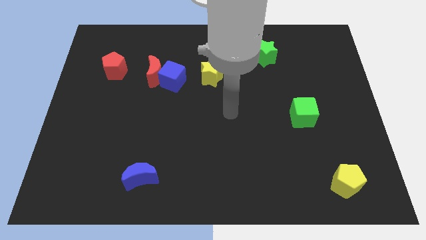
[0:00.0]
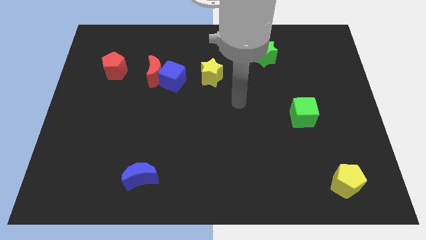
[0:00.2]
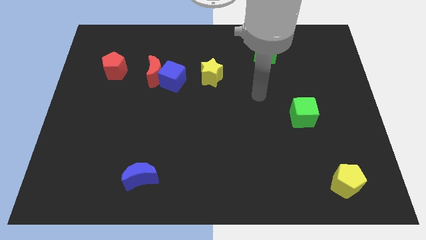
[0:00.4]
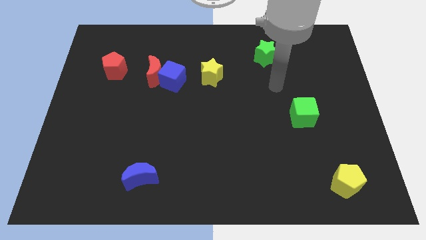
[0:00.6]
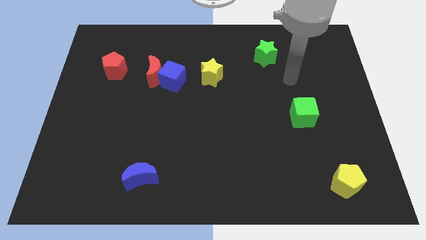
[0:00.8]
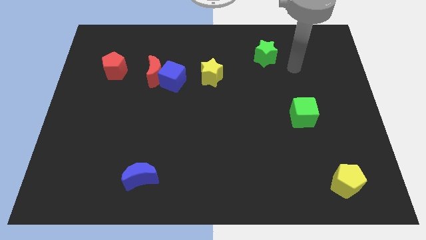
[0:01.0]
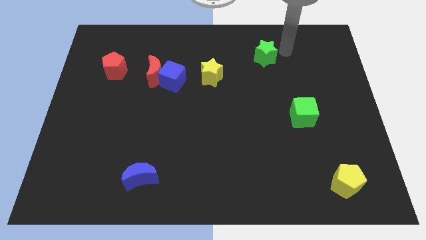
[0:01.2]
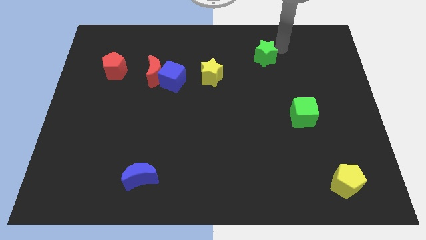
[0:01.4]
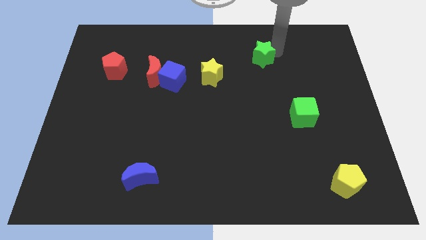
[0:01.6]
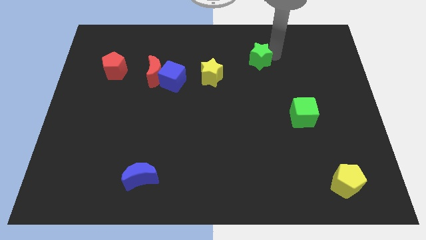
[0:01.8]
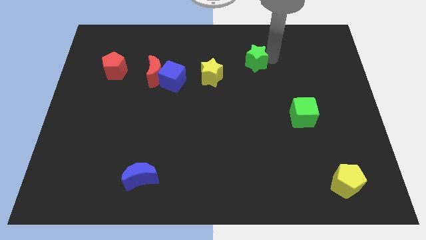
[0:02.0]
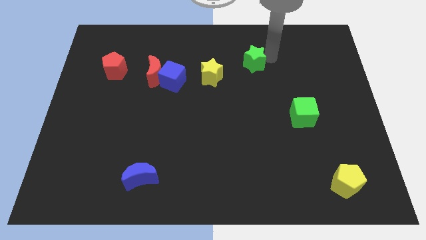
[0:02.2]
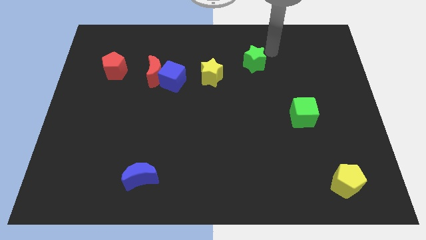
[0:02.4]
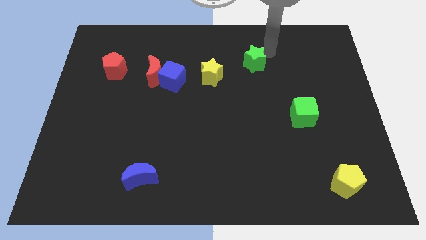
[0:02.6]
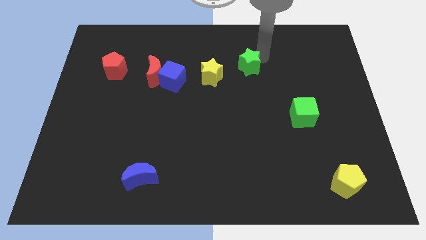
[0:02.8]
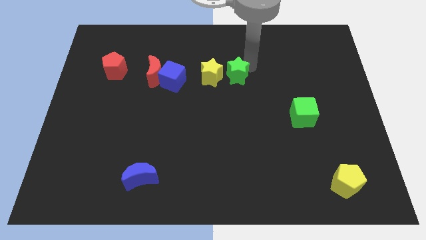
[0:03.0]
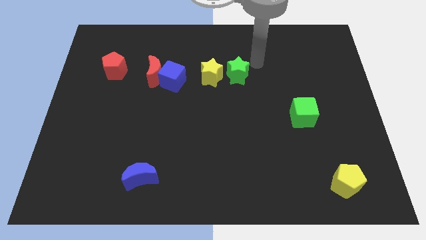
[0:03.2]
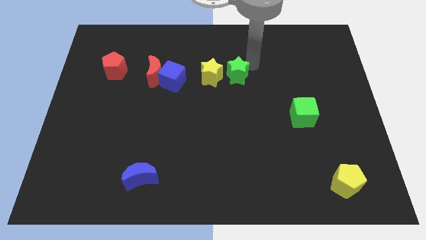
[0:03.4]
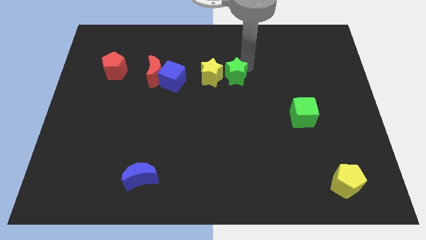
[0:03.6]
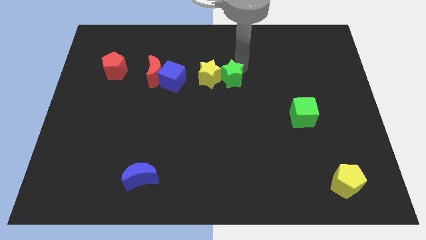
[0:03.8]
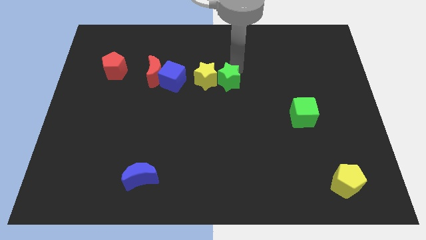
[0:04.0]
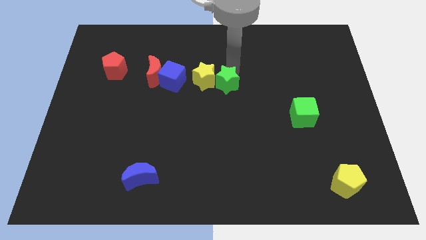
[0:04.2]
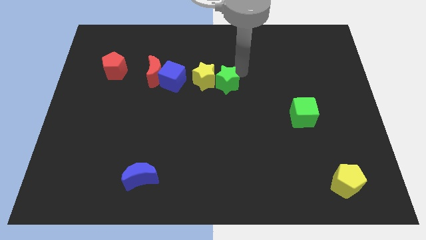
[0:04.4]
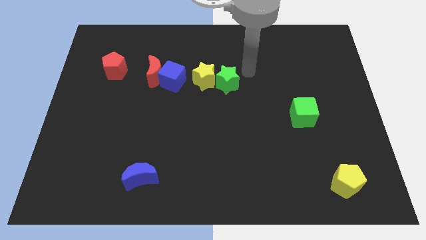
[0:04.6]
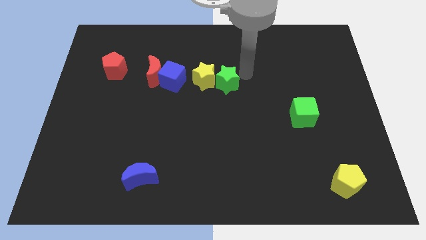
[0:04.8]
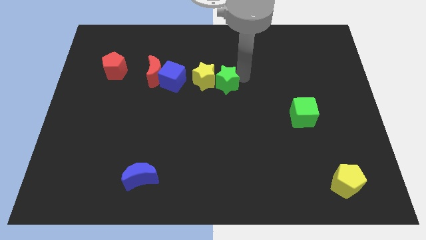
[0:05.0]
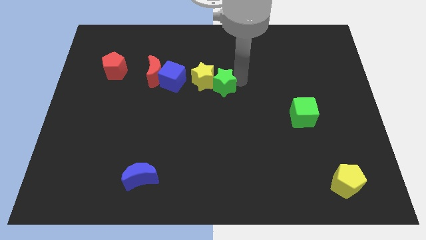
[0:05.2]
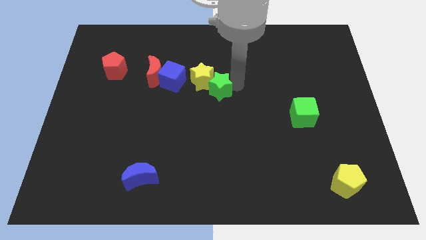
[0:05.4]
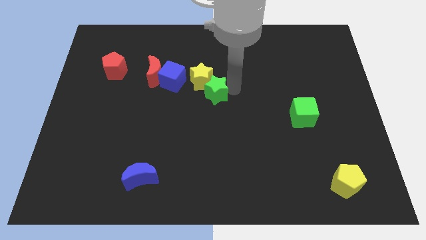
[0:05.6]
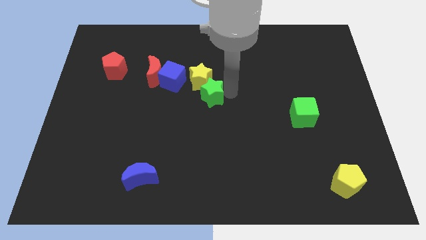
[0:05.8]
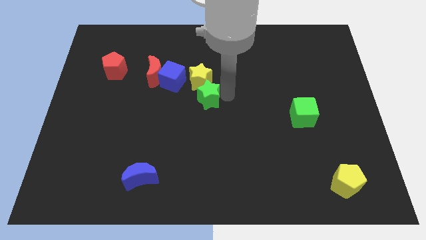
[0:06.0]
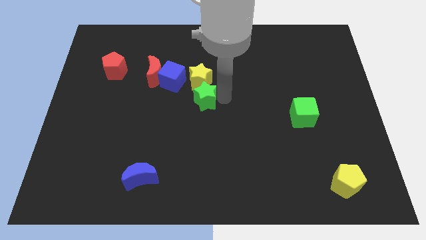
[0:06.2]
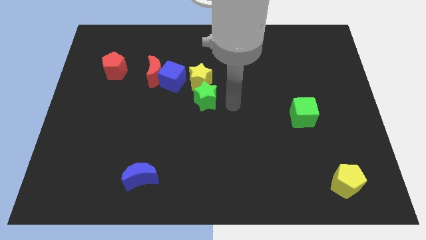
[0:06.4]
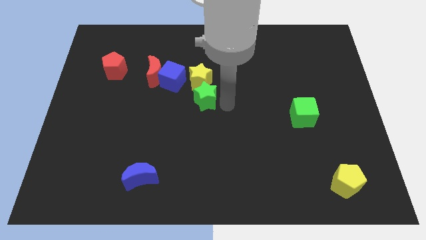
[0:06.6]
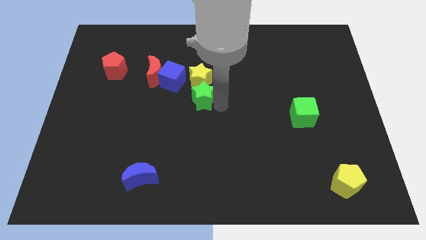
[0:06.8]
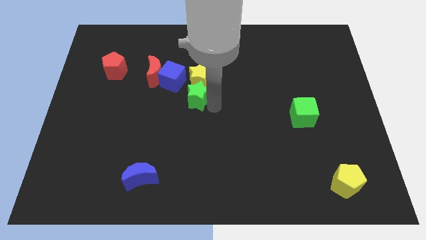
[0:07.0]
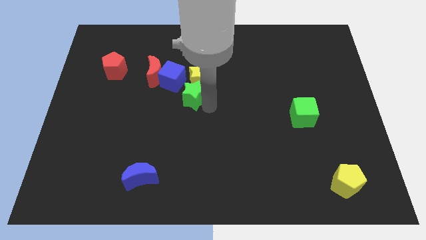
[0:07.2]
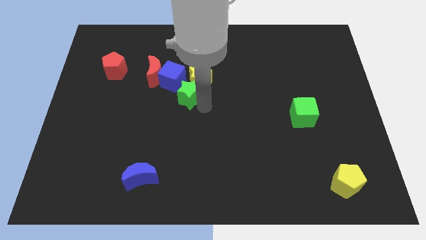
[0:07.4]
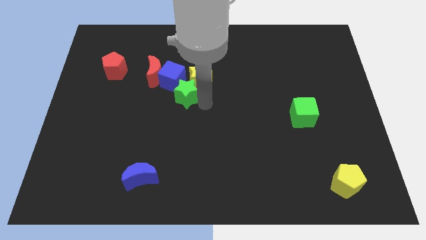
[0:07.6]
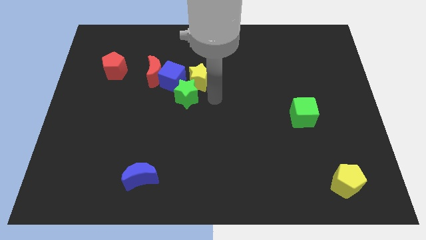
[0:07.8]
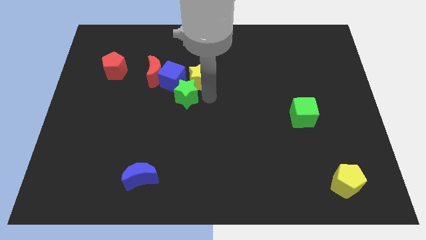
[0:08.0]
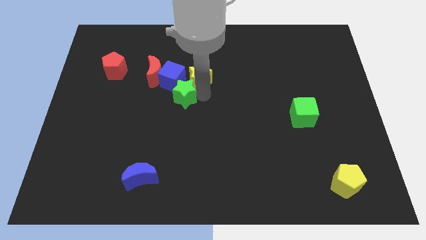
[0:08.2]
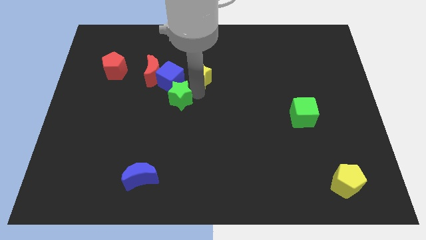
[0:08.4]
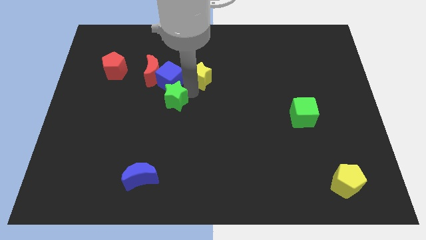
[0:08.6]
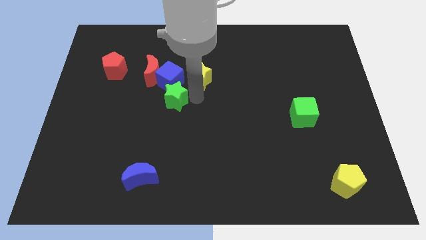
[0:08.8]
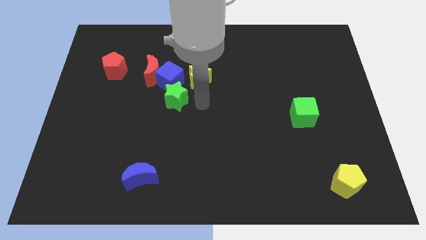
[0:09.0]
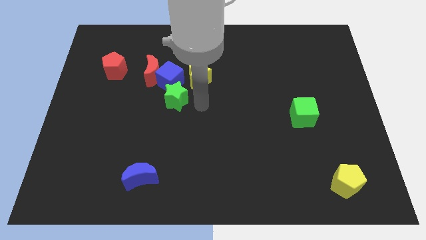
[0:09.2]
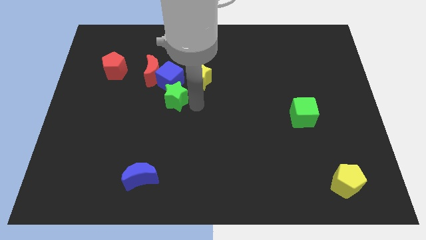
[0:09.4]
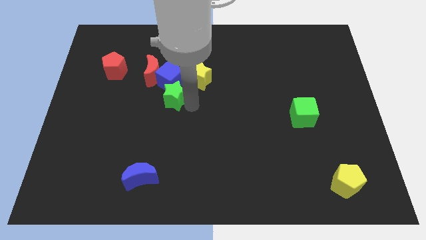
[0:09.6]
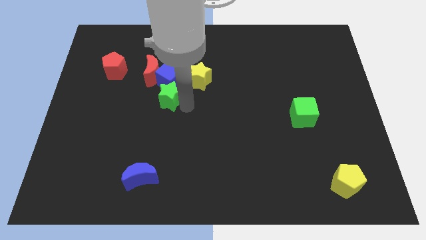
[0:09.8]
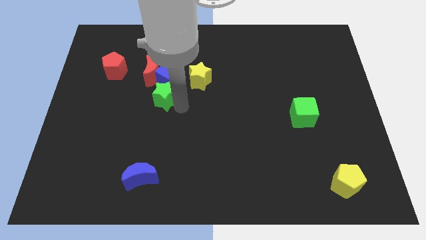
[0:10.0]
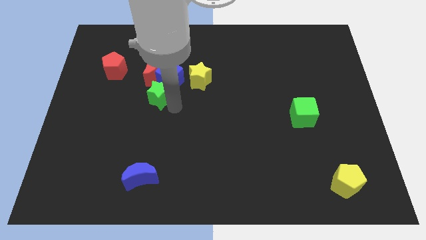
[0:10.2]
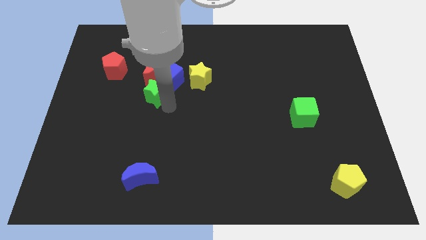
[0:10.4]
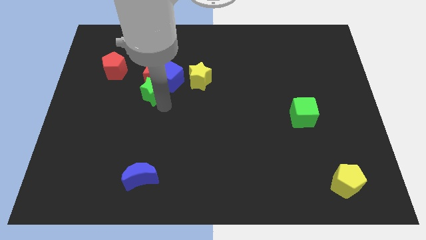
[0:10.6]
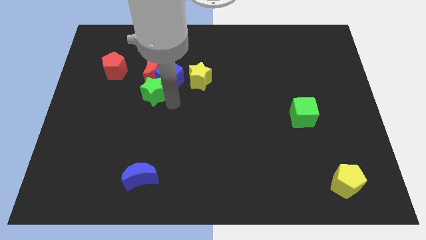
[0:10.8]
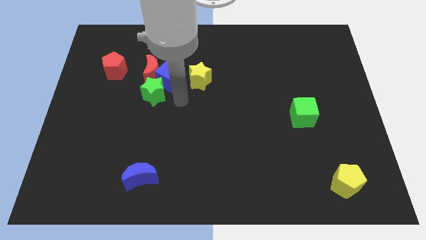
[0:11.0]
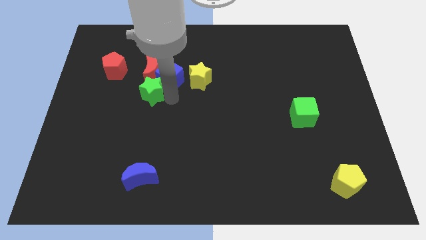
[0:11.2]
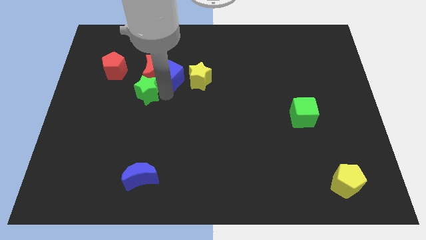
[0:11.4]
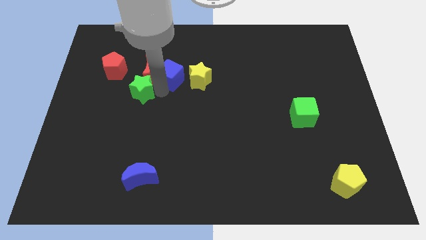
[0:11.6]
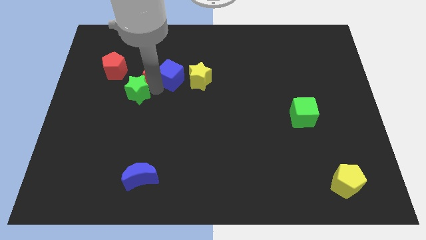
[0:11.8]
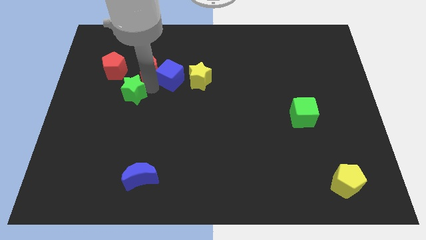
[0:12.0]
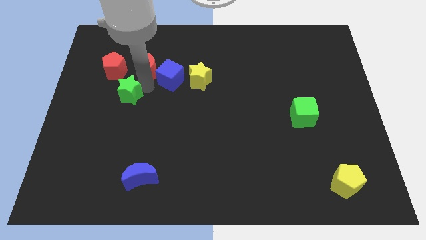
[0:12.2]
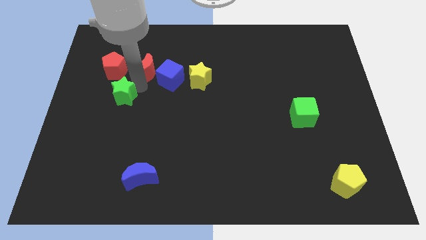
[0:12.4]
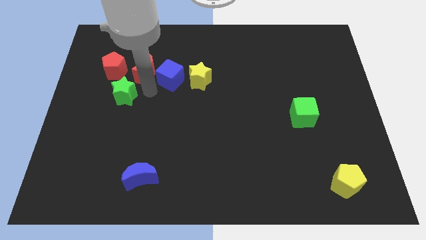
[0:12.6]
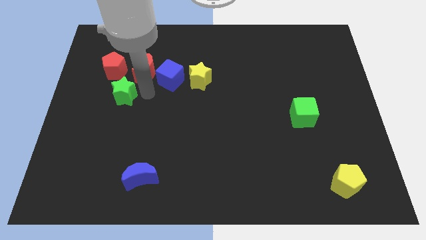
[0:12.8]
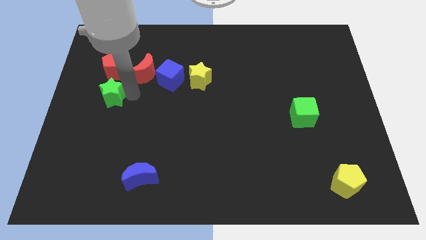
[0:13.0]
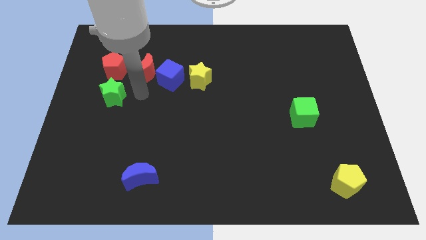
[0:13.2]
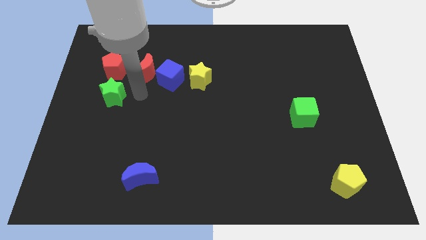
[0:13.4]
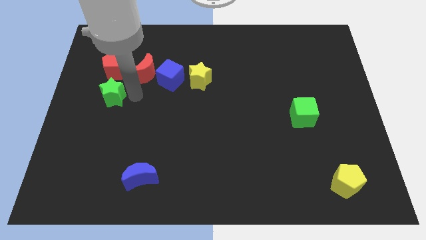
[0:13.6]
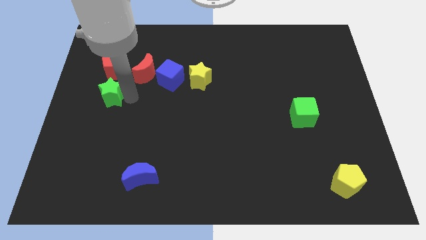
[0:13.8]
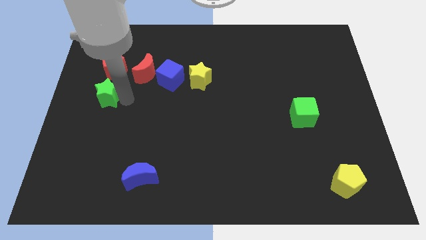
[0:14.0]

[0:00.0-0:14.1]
slide the green star to the left side of the board

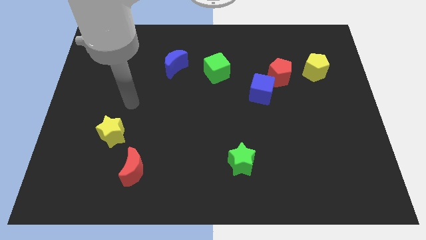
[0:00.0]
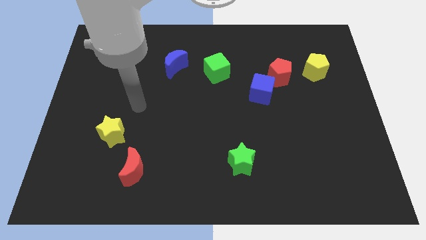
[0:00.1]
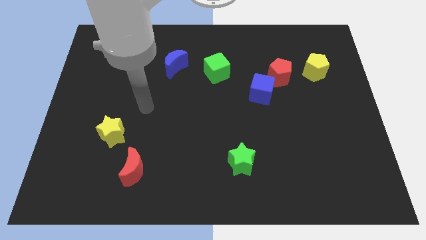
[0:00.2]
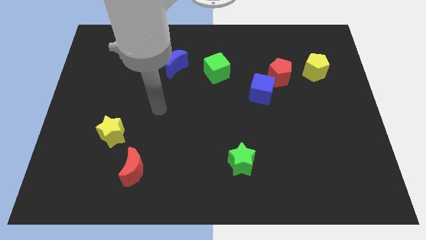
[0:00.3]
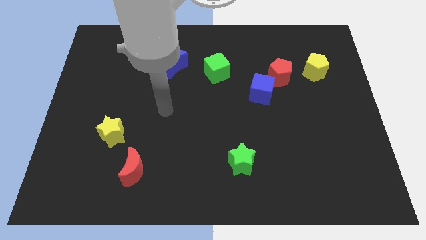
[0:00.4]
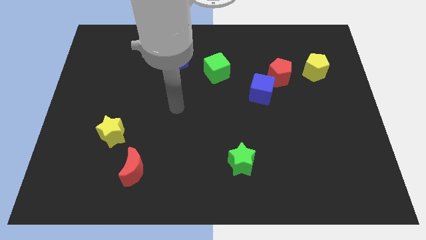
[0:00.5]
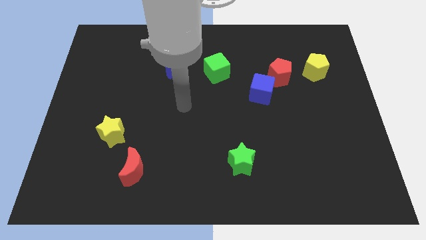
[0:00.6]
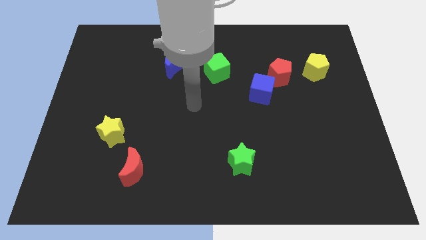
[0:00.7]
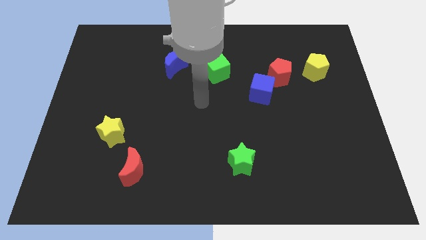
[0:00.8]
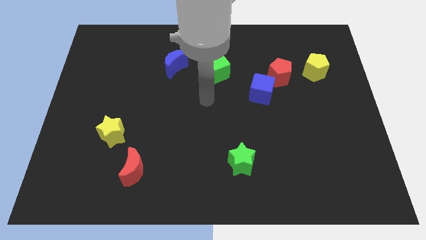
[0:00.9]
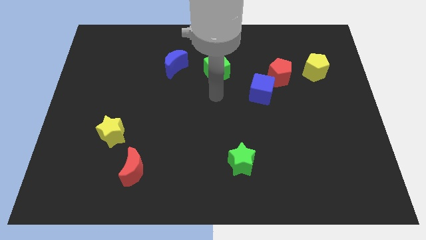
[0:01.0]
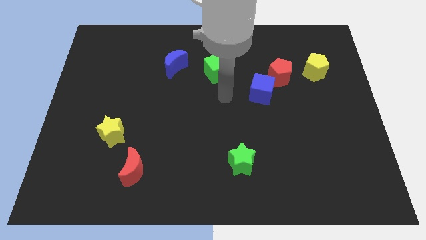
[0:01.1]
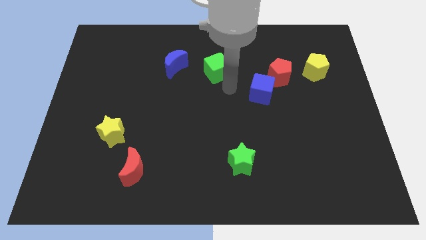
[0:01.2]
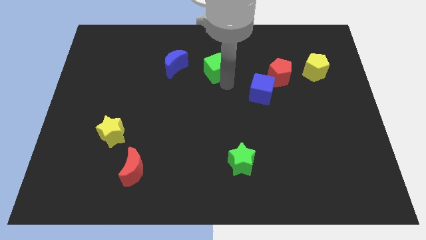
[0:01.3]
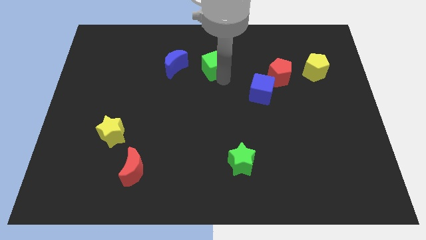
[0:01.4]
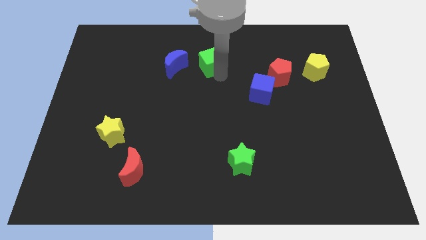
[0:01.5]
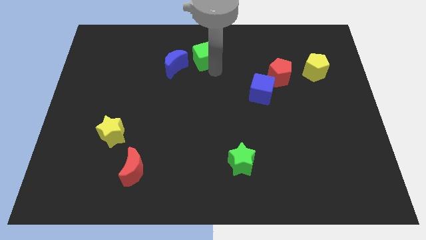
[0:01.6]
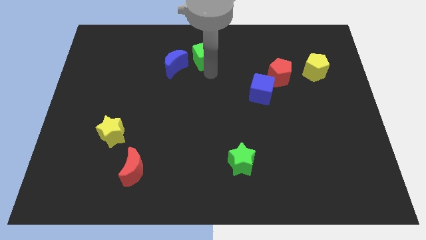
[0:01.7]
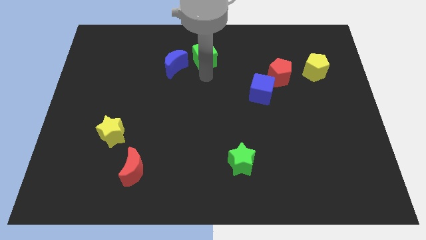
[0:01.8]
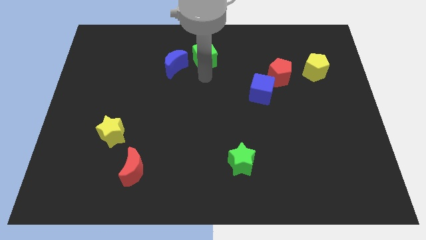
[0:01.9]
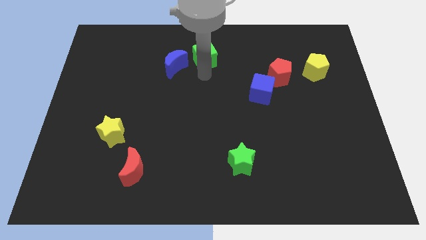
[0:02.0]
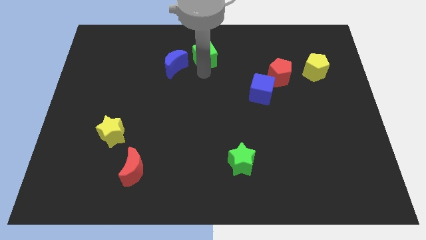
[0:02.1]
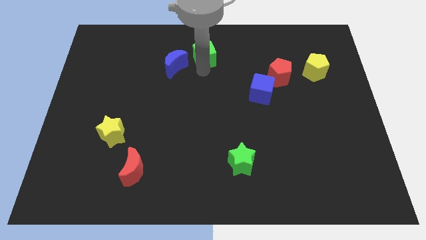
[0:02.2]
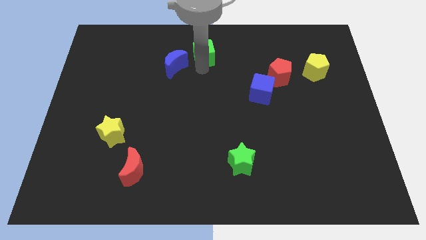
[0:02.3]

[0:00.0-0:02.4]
slide the green cube to the top side
